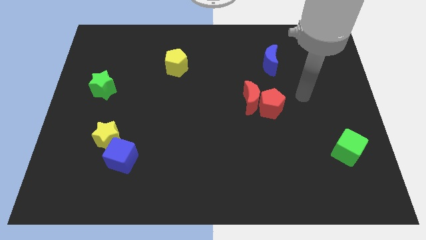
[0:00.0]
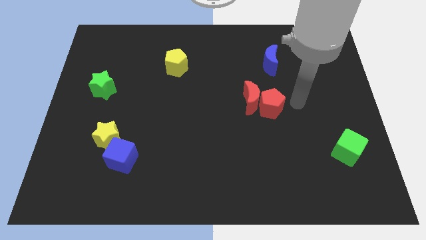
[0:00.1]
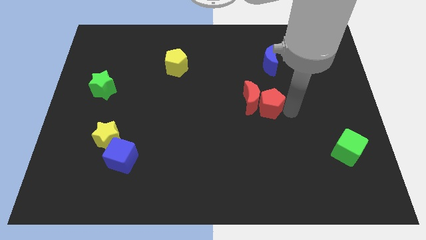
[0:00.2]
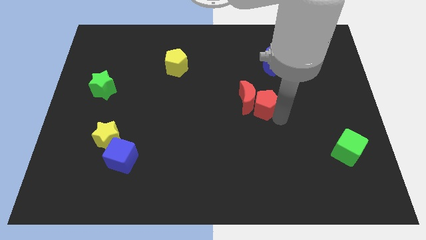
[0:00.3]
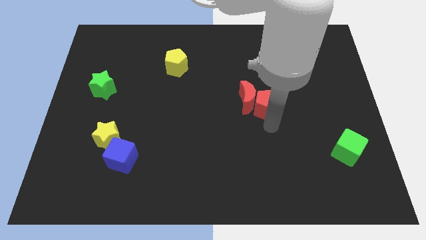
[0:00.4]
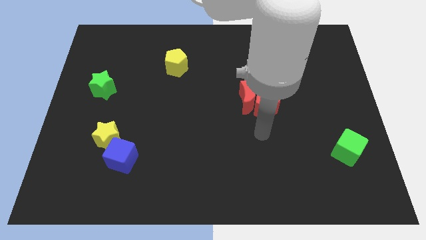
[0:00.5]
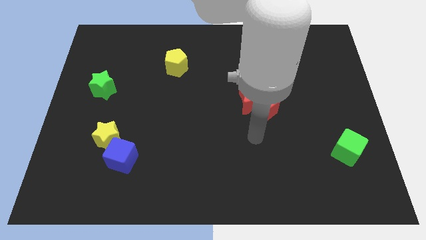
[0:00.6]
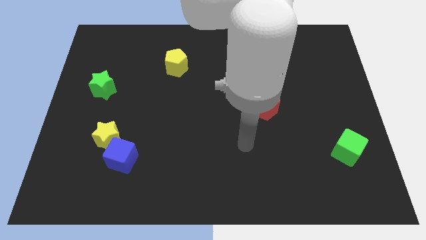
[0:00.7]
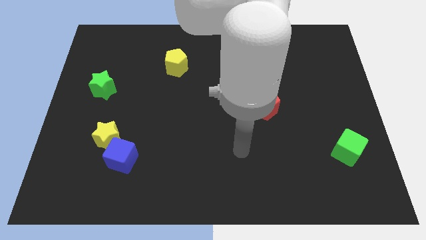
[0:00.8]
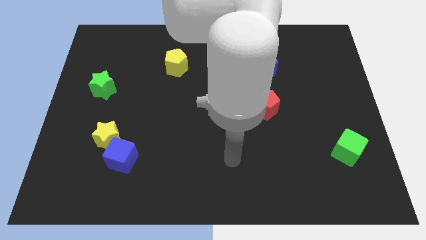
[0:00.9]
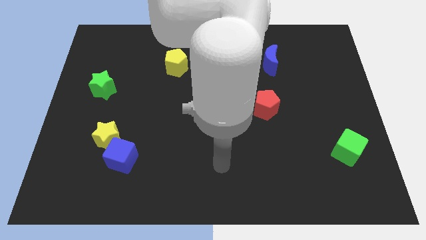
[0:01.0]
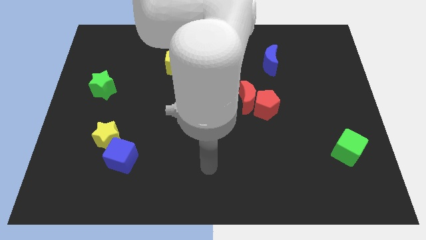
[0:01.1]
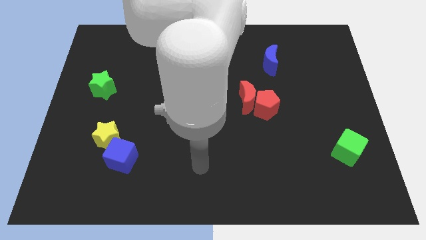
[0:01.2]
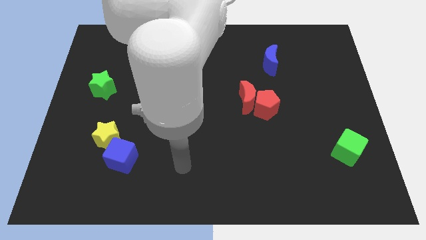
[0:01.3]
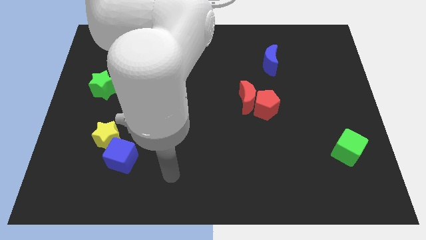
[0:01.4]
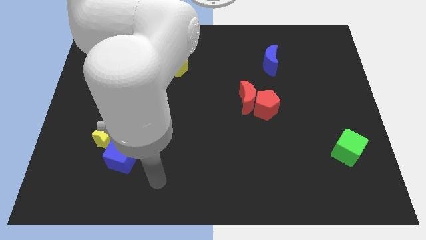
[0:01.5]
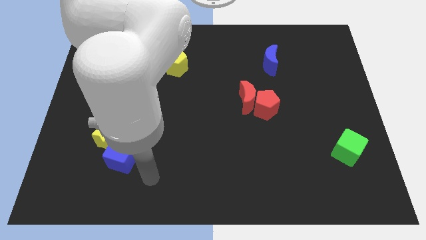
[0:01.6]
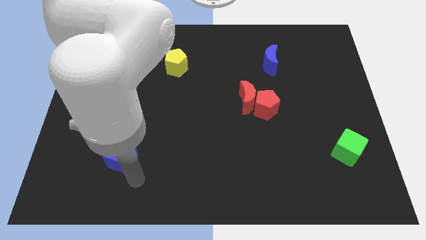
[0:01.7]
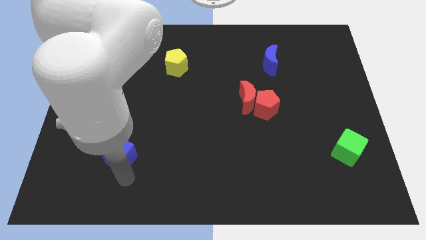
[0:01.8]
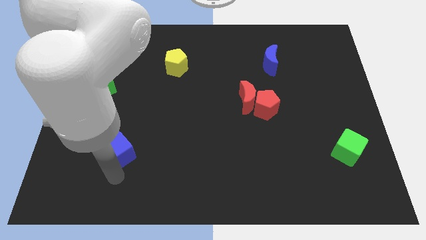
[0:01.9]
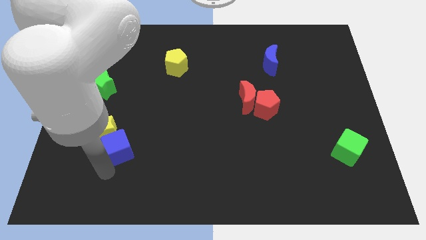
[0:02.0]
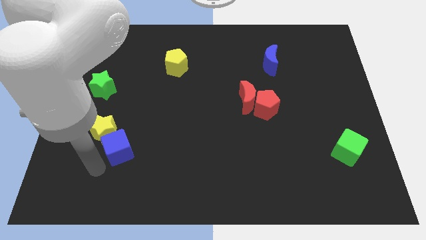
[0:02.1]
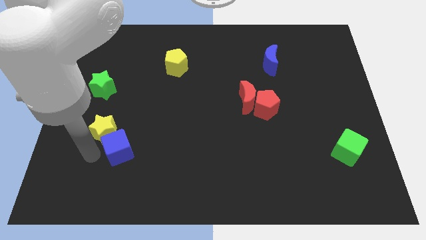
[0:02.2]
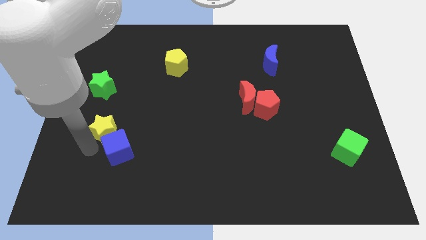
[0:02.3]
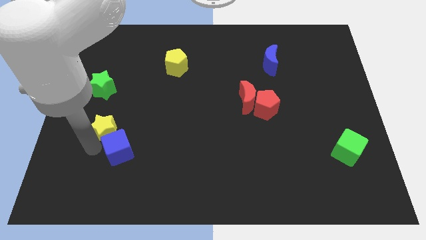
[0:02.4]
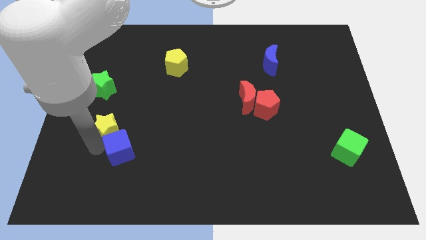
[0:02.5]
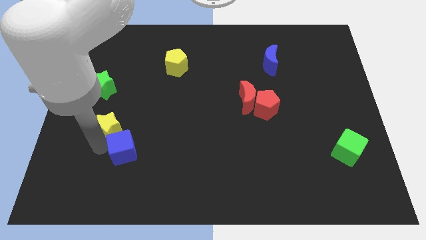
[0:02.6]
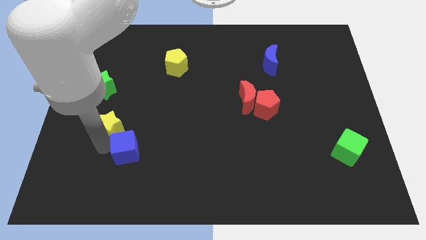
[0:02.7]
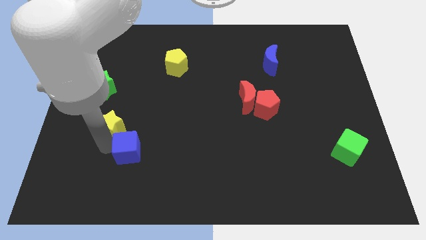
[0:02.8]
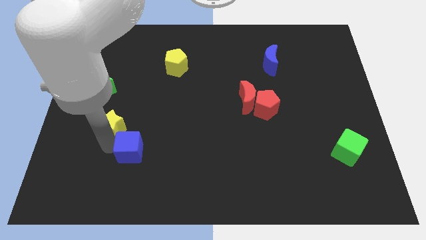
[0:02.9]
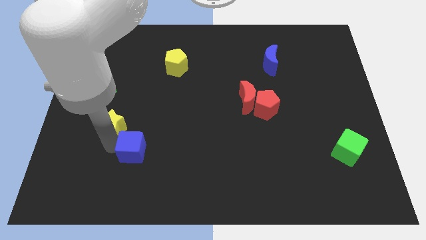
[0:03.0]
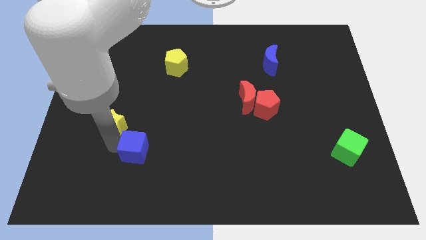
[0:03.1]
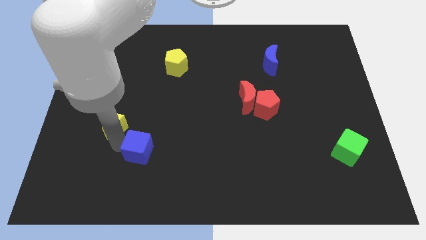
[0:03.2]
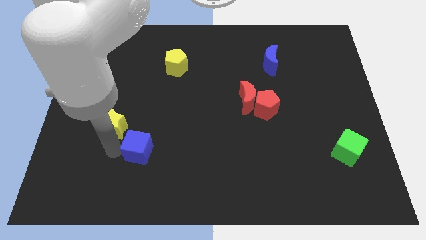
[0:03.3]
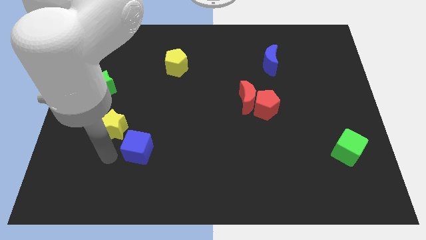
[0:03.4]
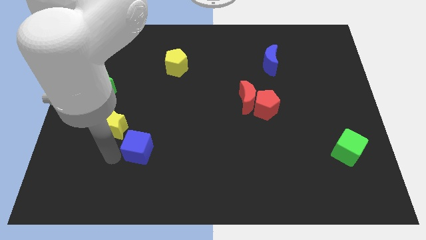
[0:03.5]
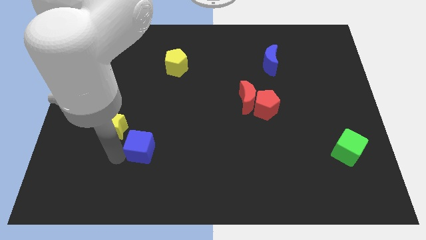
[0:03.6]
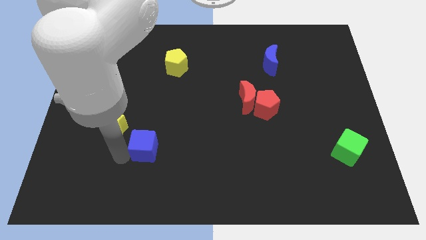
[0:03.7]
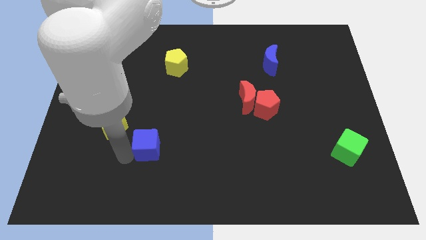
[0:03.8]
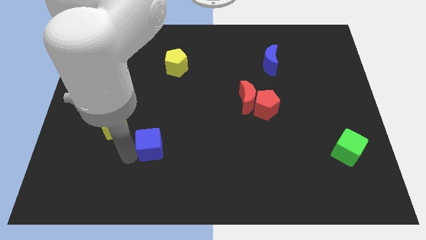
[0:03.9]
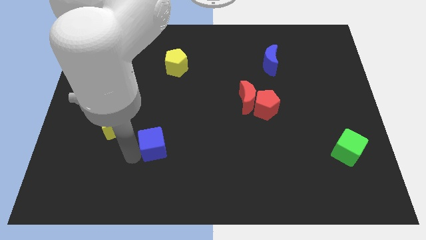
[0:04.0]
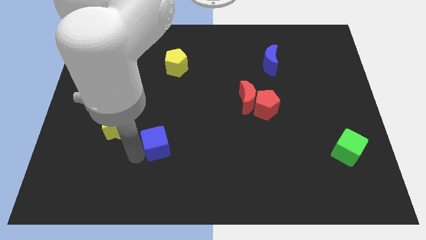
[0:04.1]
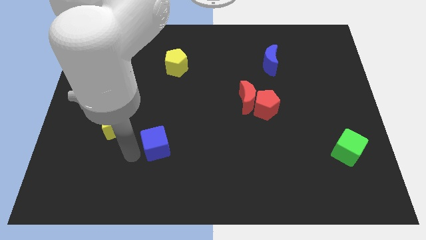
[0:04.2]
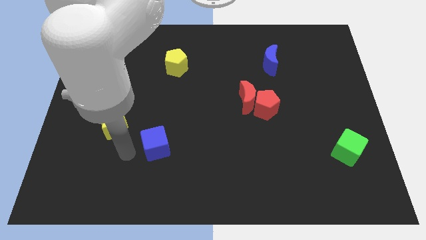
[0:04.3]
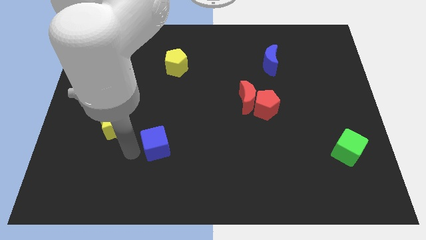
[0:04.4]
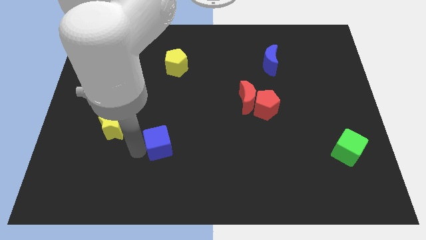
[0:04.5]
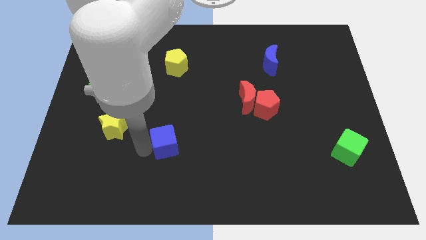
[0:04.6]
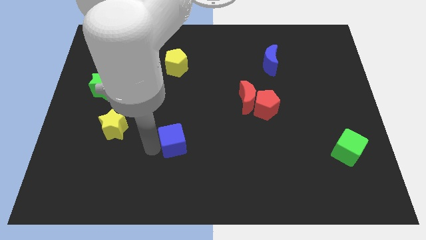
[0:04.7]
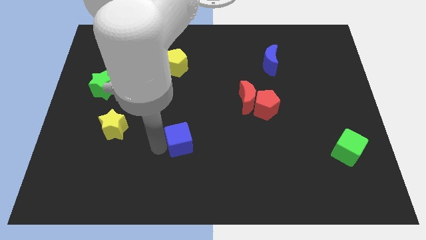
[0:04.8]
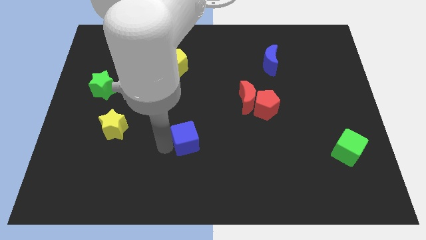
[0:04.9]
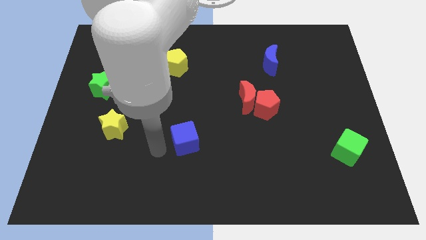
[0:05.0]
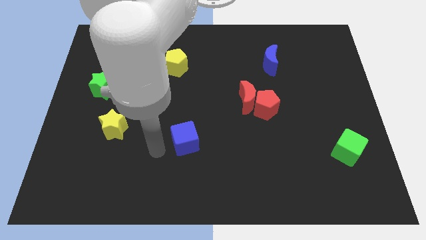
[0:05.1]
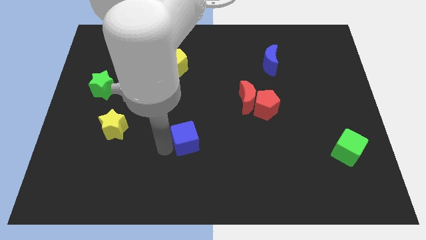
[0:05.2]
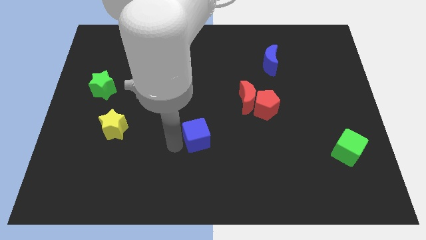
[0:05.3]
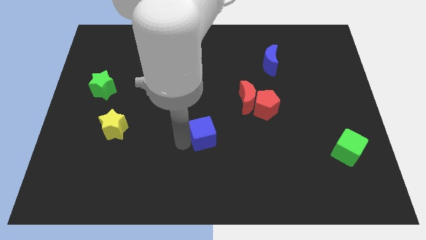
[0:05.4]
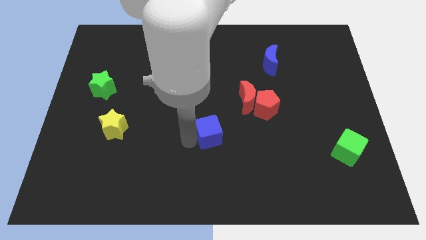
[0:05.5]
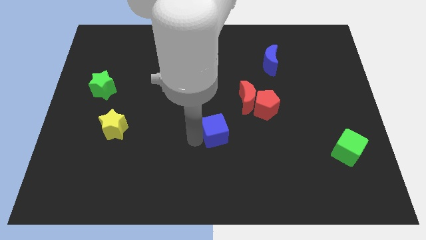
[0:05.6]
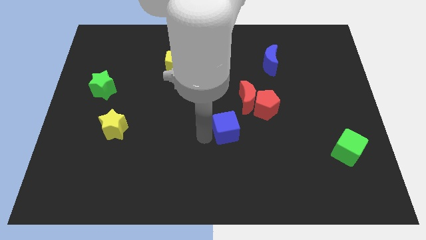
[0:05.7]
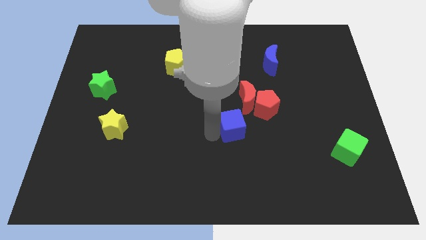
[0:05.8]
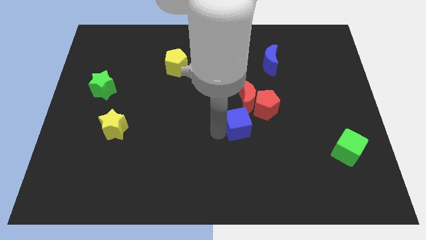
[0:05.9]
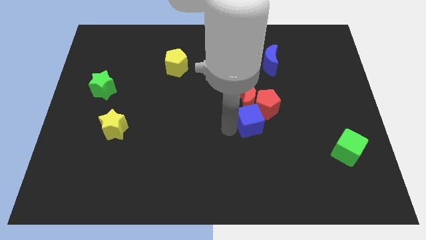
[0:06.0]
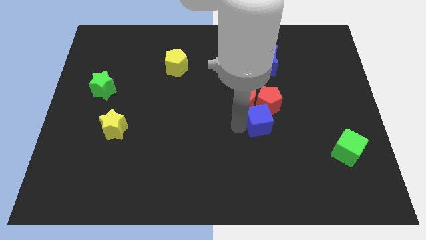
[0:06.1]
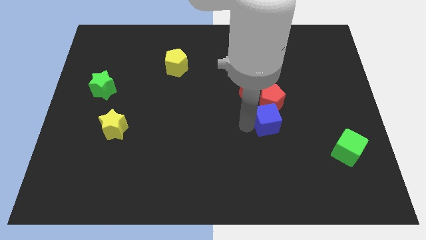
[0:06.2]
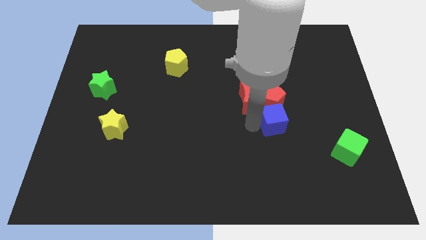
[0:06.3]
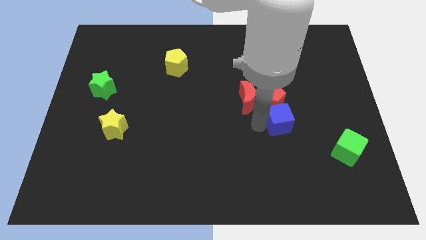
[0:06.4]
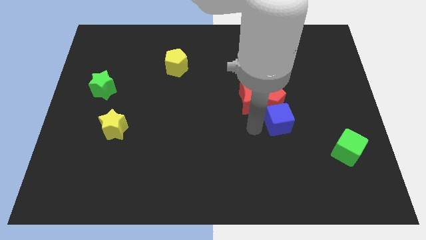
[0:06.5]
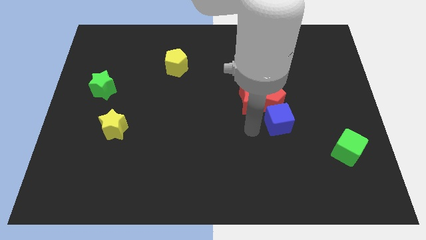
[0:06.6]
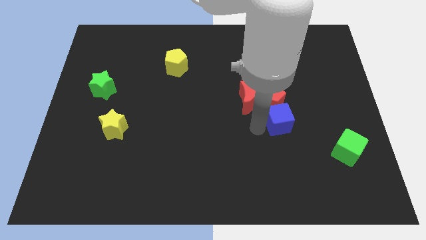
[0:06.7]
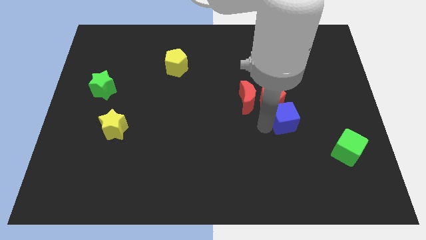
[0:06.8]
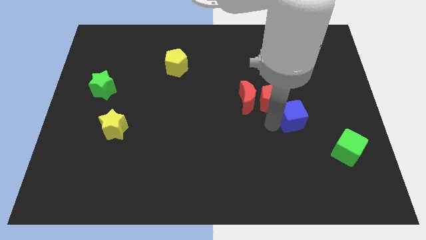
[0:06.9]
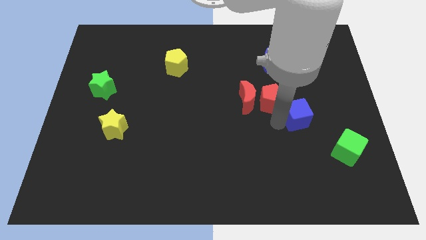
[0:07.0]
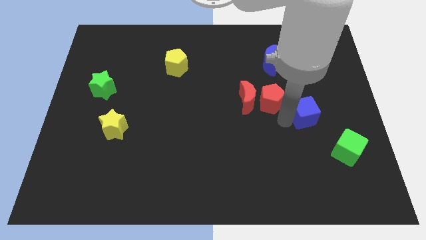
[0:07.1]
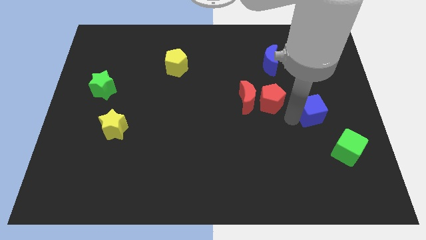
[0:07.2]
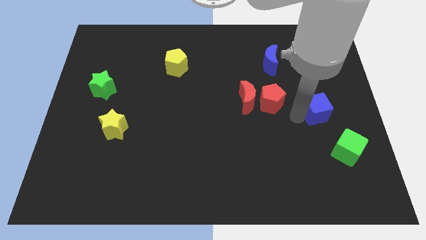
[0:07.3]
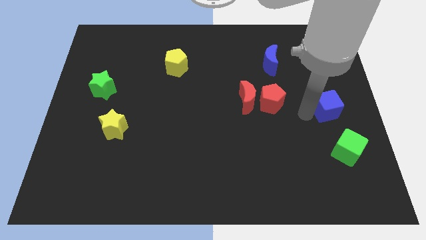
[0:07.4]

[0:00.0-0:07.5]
move the blue cube to the right side of the board
